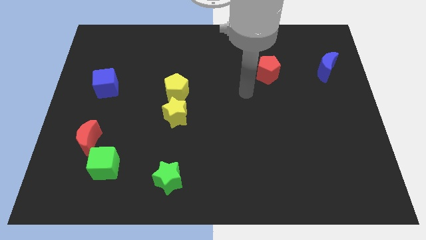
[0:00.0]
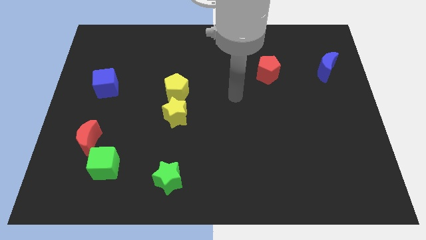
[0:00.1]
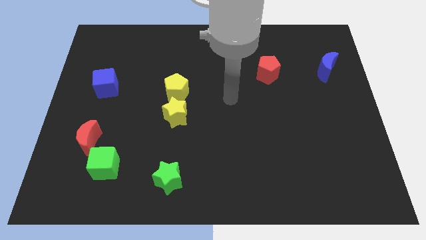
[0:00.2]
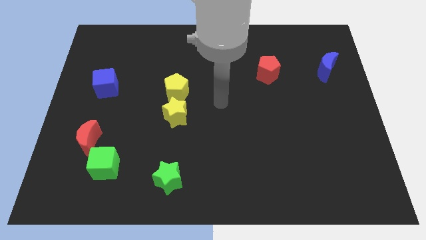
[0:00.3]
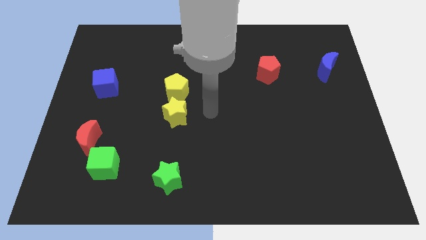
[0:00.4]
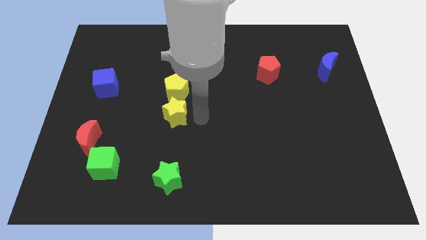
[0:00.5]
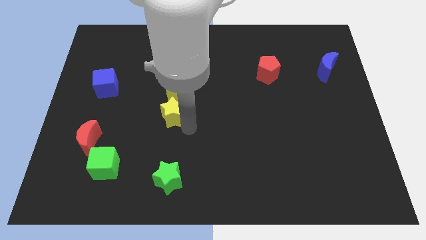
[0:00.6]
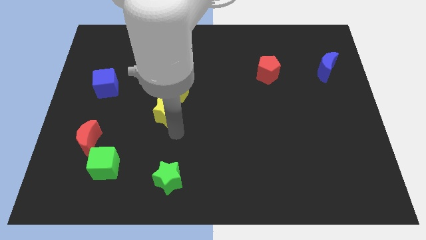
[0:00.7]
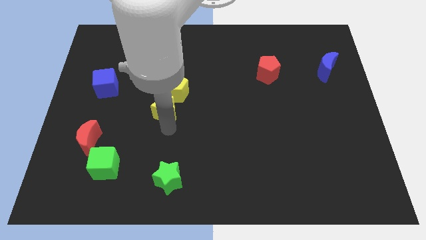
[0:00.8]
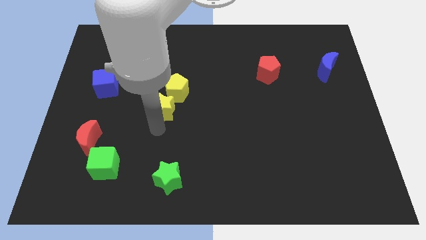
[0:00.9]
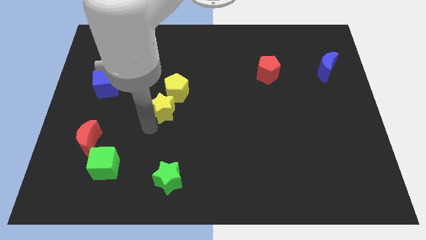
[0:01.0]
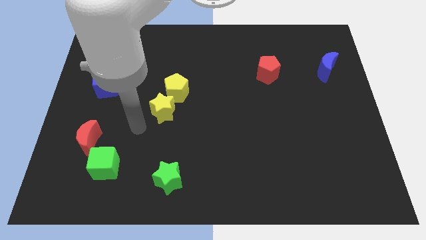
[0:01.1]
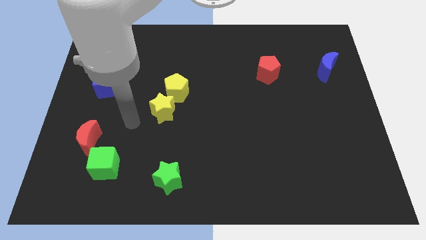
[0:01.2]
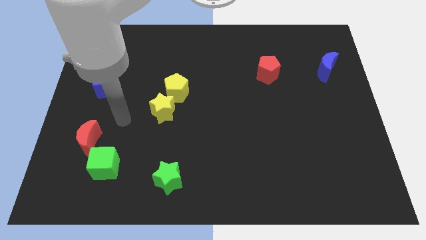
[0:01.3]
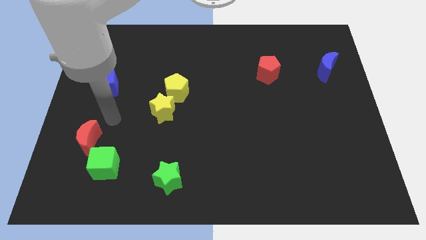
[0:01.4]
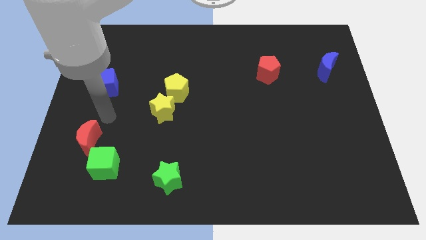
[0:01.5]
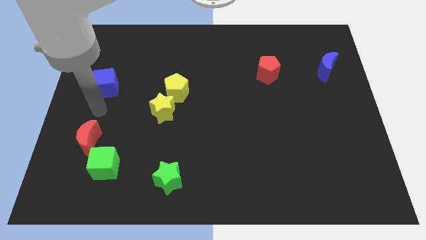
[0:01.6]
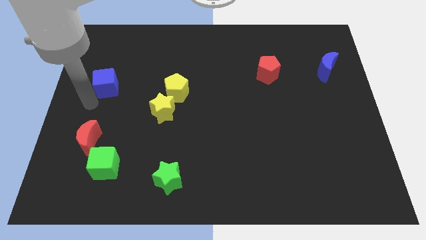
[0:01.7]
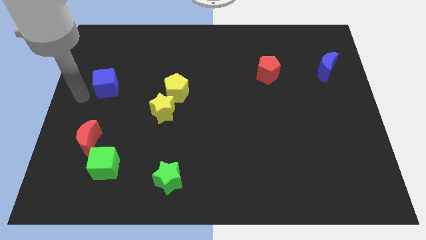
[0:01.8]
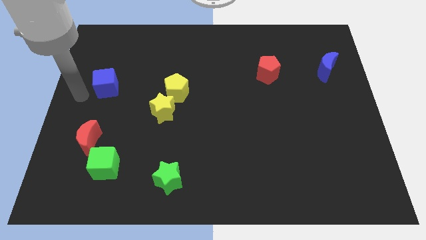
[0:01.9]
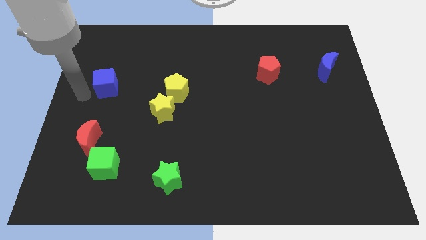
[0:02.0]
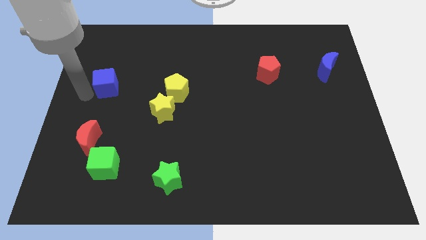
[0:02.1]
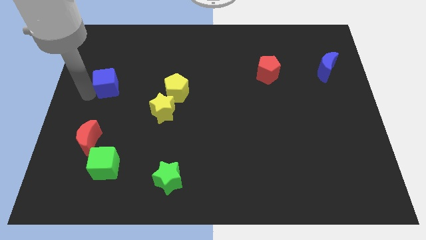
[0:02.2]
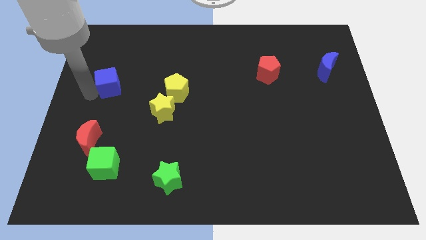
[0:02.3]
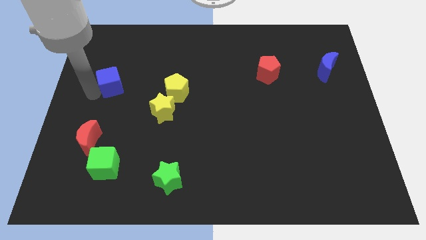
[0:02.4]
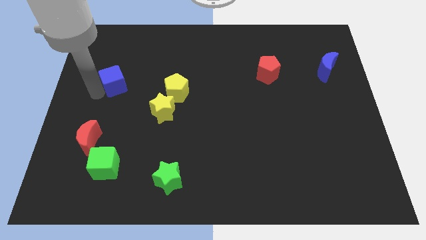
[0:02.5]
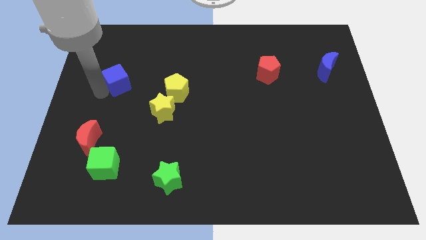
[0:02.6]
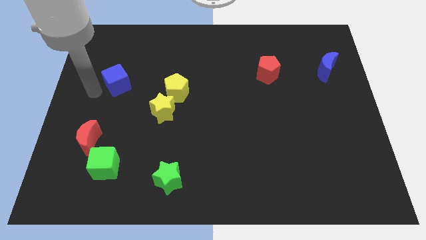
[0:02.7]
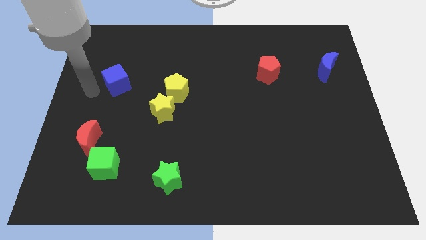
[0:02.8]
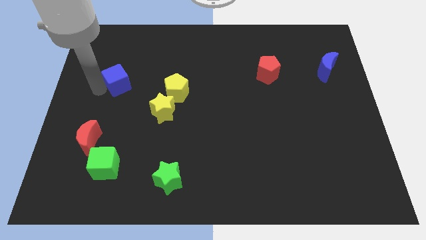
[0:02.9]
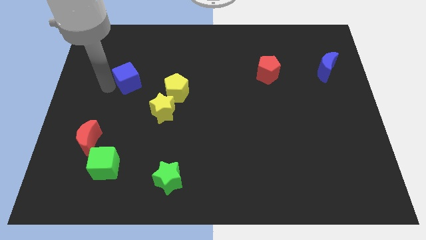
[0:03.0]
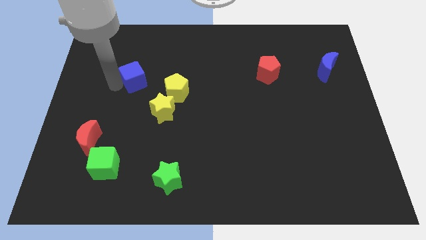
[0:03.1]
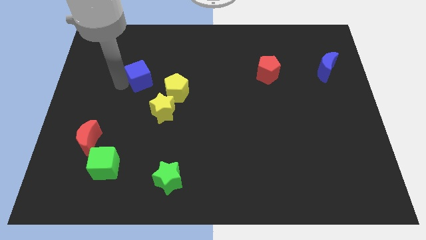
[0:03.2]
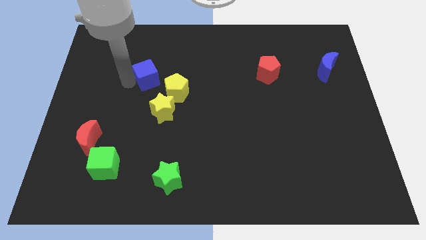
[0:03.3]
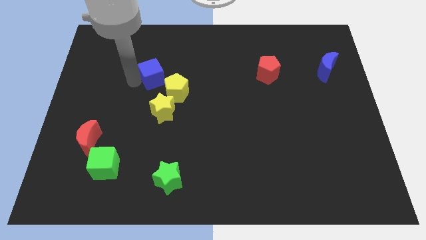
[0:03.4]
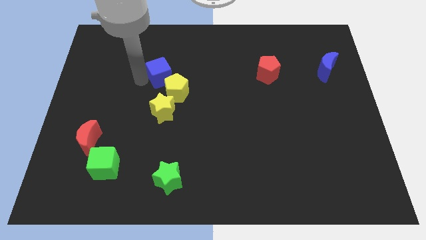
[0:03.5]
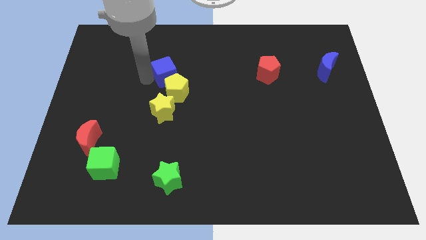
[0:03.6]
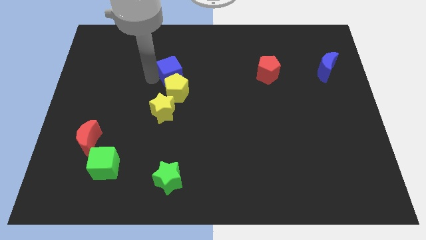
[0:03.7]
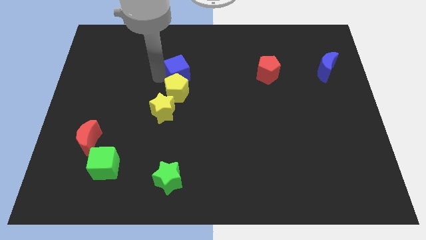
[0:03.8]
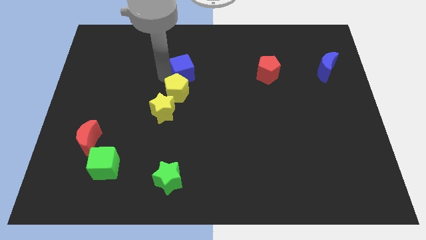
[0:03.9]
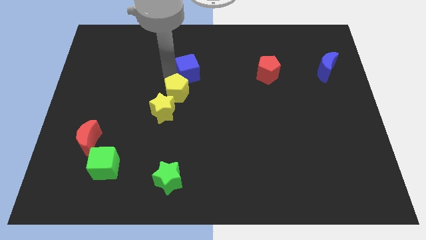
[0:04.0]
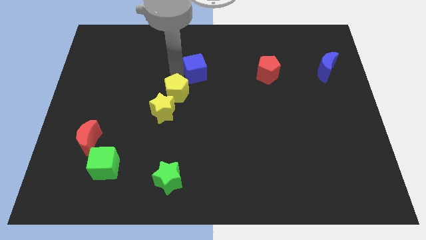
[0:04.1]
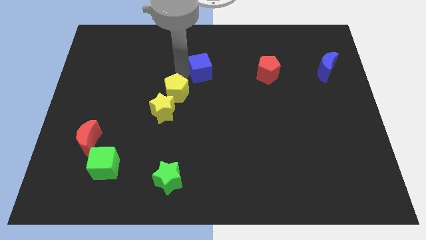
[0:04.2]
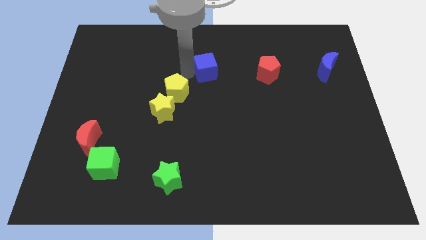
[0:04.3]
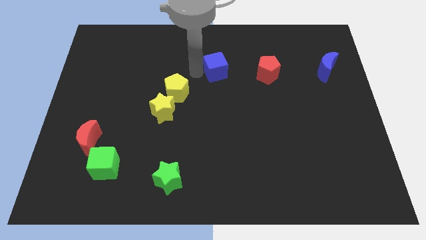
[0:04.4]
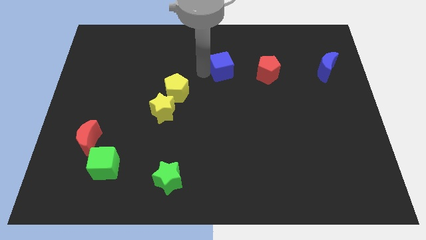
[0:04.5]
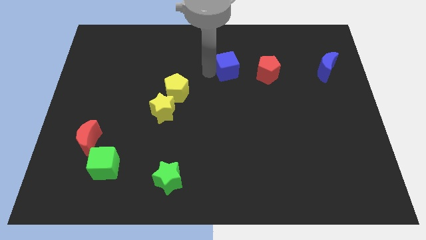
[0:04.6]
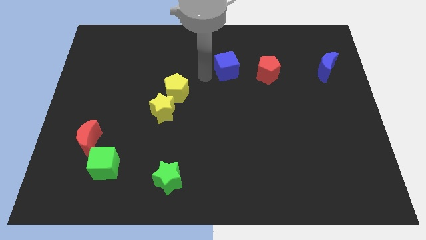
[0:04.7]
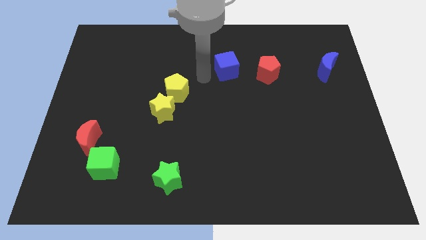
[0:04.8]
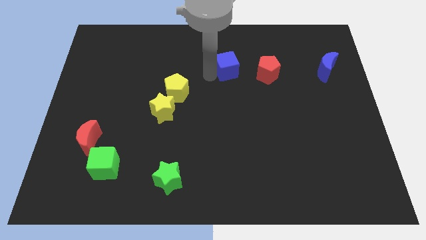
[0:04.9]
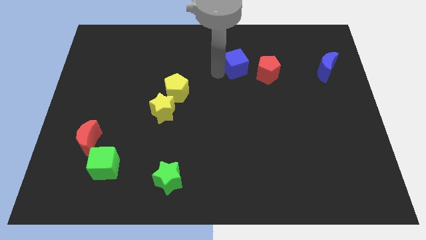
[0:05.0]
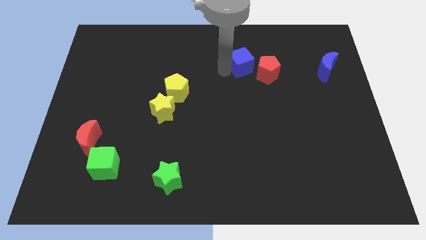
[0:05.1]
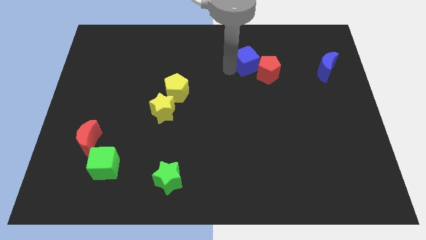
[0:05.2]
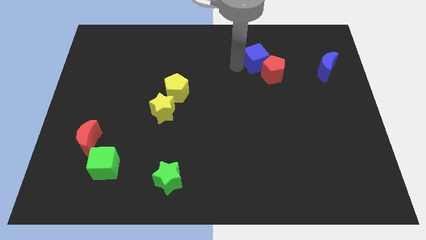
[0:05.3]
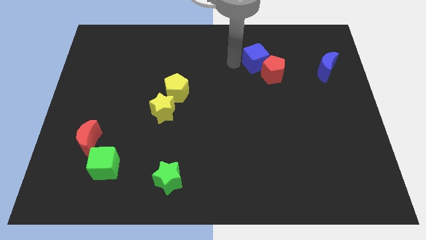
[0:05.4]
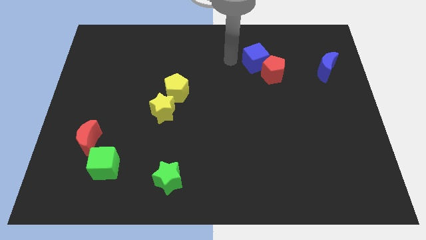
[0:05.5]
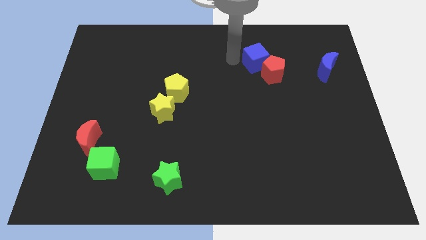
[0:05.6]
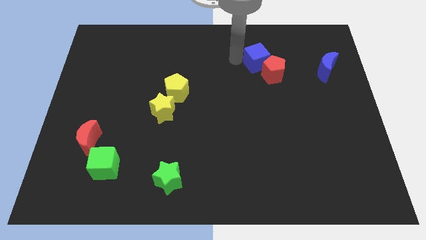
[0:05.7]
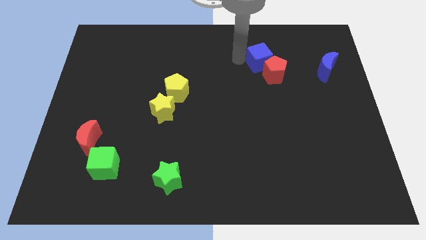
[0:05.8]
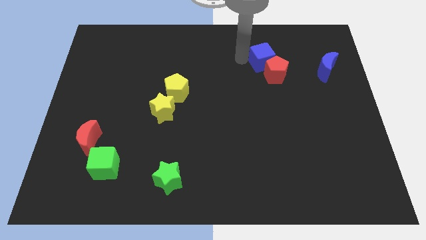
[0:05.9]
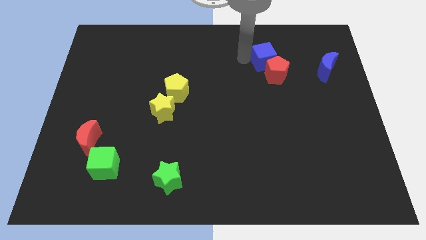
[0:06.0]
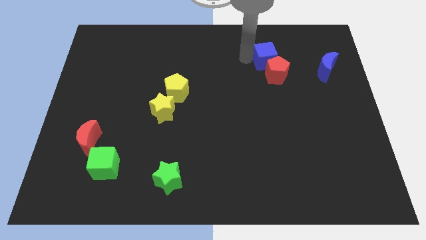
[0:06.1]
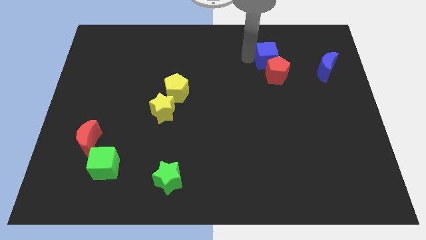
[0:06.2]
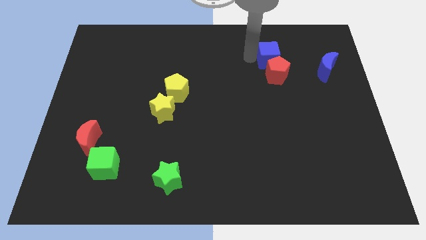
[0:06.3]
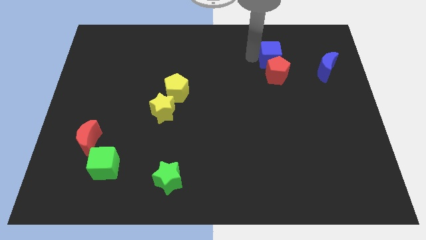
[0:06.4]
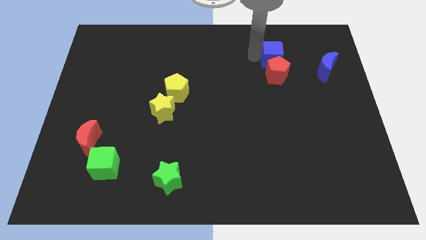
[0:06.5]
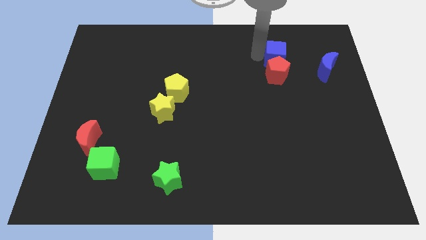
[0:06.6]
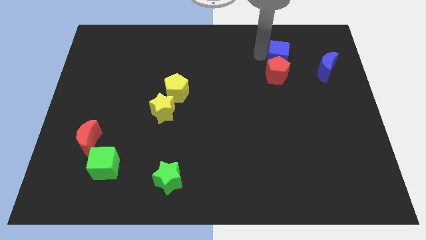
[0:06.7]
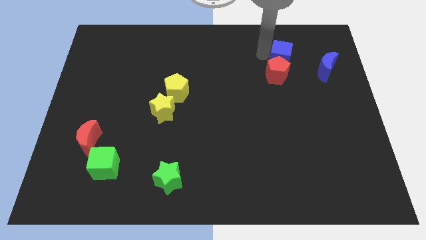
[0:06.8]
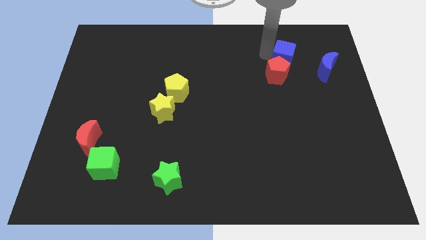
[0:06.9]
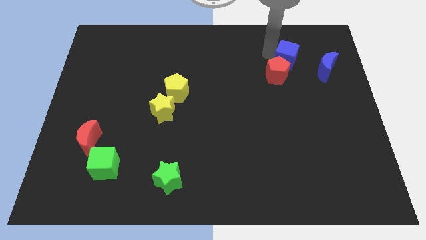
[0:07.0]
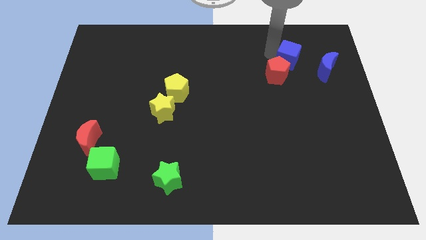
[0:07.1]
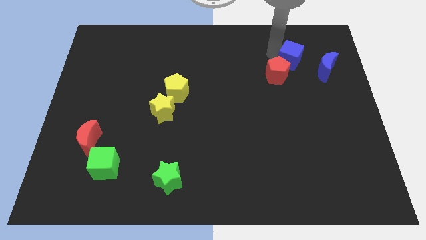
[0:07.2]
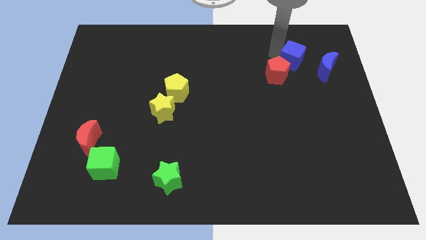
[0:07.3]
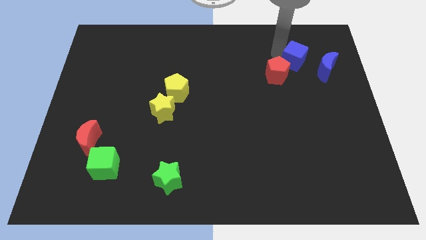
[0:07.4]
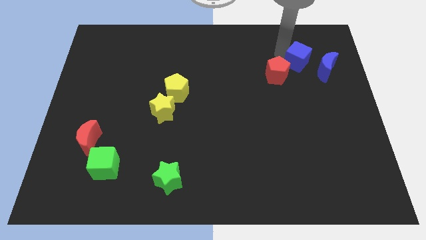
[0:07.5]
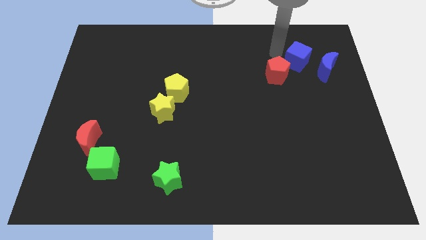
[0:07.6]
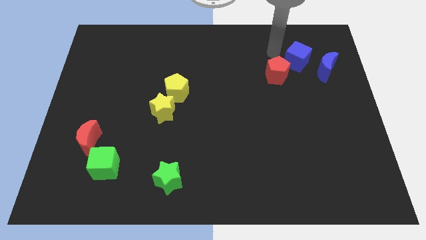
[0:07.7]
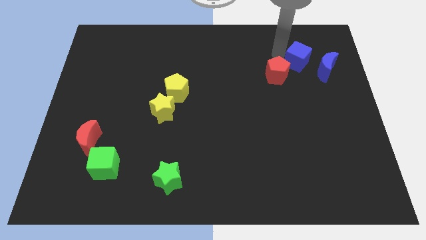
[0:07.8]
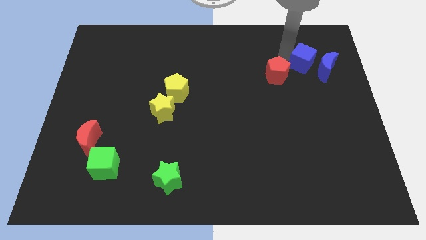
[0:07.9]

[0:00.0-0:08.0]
slide the blue cube to the blue moon
